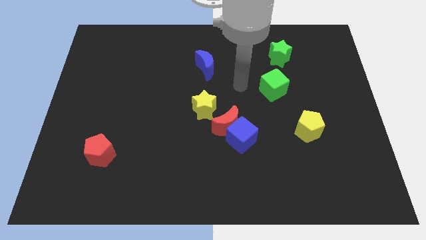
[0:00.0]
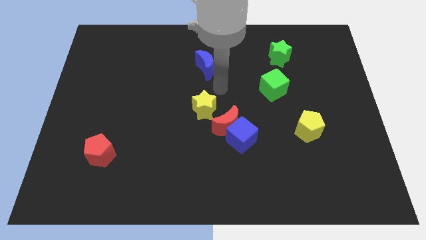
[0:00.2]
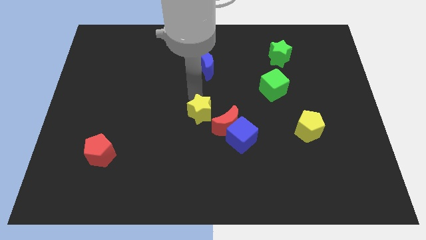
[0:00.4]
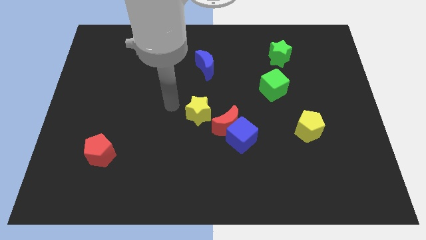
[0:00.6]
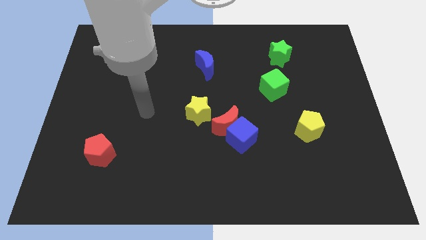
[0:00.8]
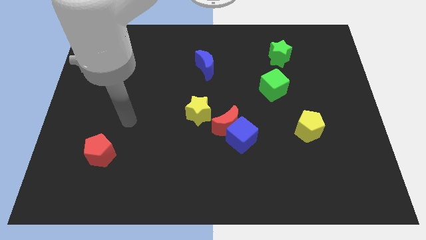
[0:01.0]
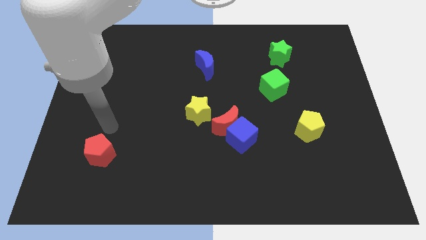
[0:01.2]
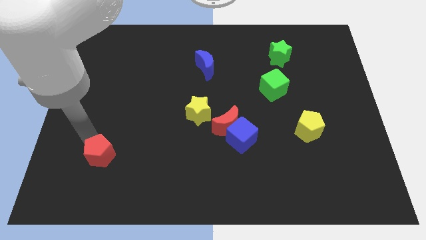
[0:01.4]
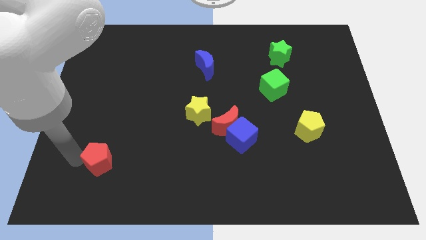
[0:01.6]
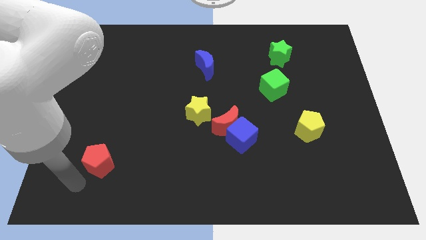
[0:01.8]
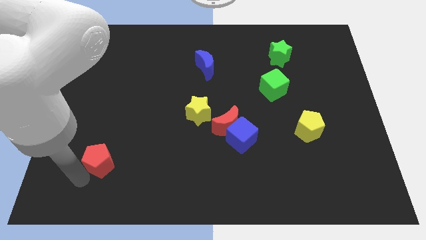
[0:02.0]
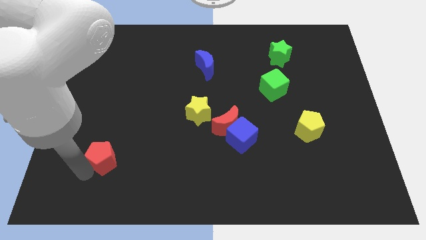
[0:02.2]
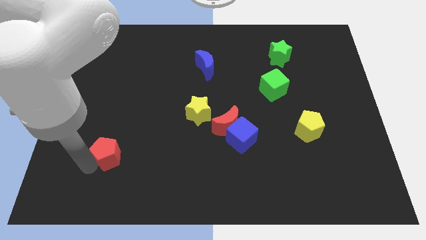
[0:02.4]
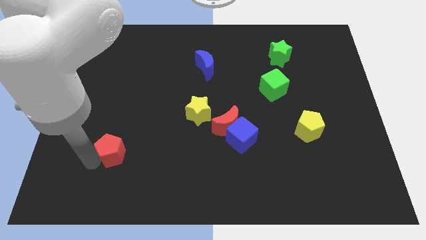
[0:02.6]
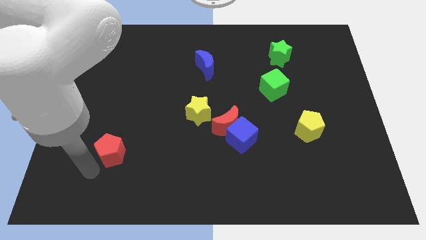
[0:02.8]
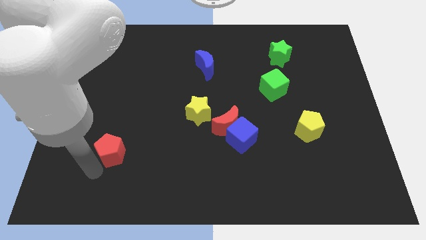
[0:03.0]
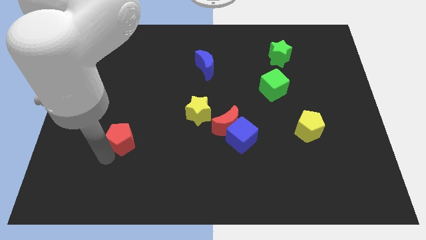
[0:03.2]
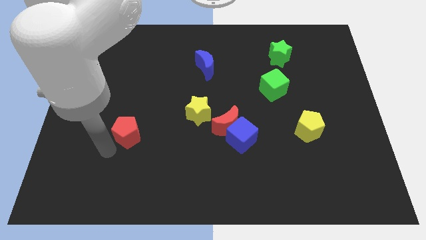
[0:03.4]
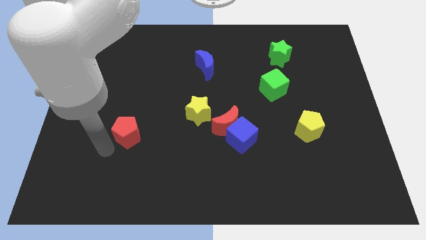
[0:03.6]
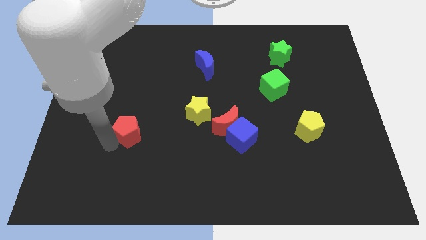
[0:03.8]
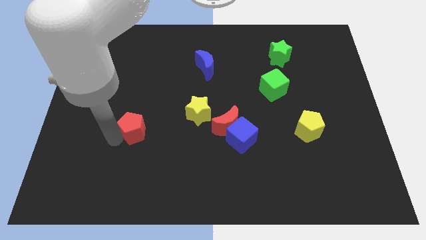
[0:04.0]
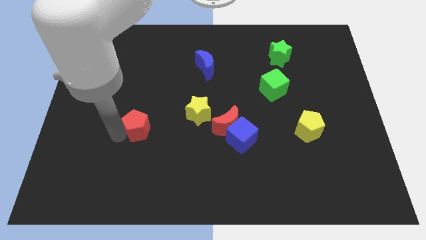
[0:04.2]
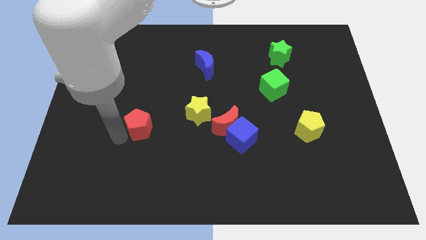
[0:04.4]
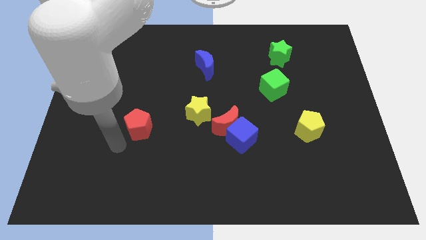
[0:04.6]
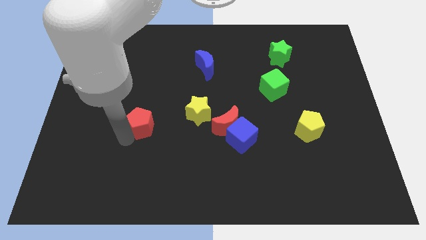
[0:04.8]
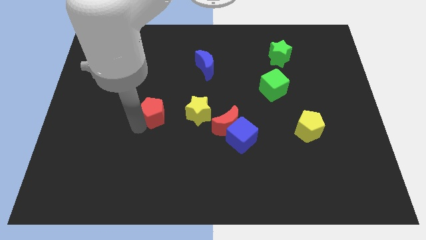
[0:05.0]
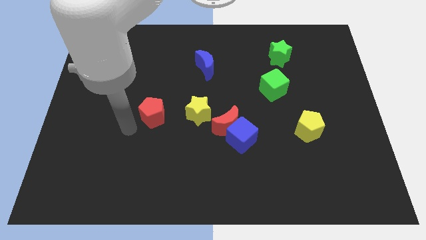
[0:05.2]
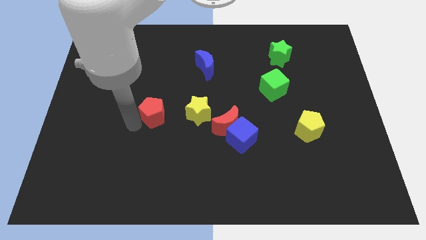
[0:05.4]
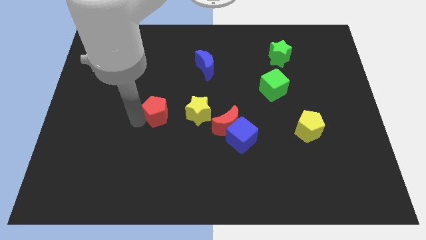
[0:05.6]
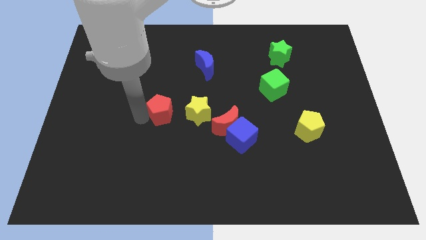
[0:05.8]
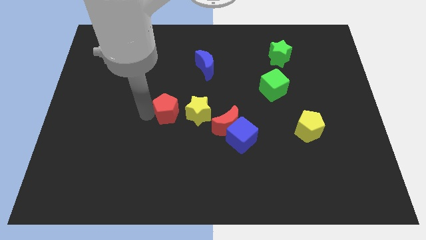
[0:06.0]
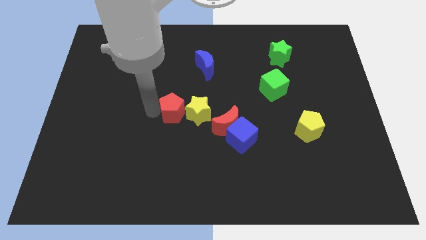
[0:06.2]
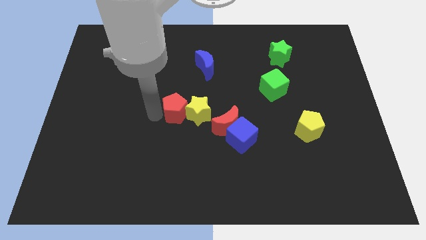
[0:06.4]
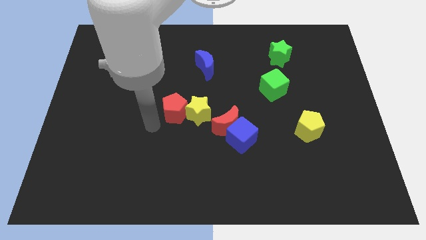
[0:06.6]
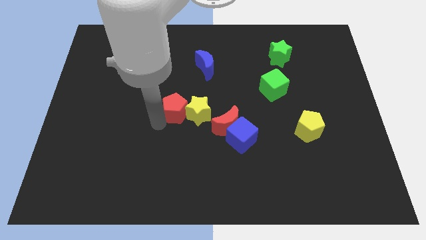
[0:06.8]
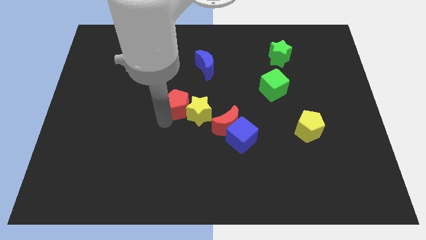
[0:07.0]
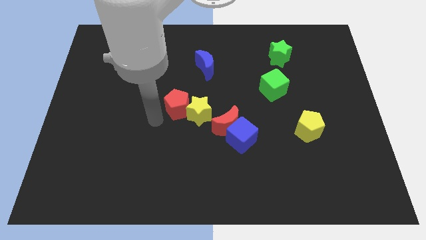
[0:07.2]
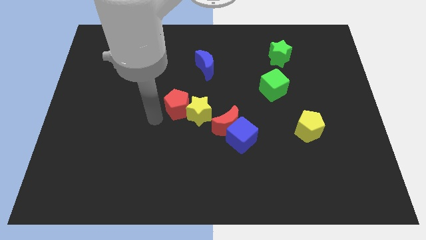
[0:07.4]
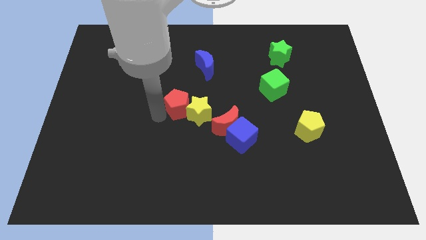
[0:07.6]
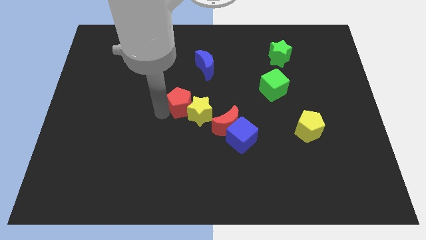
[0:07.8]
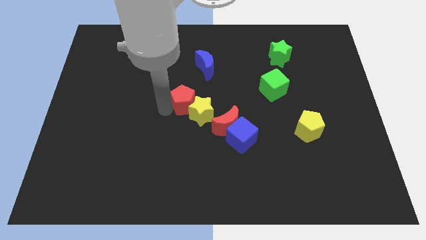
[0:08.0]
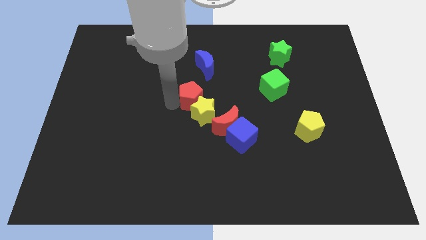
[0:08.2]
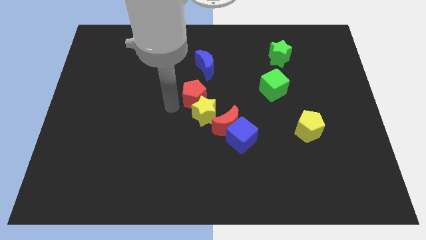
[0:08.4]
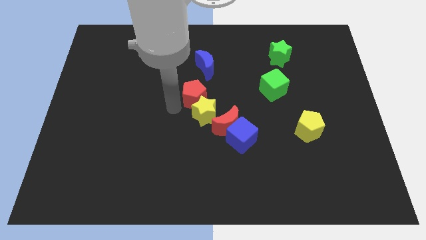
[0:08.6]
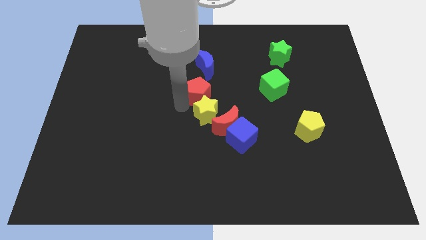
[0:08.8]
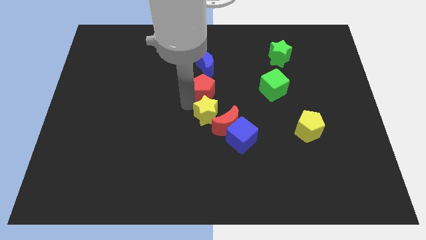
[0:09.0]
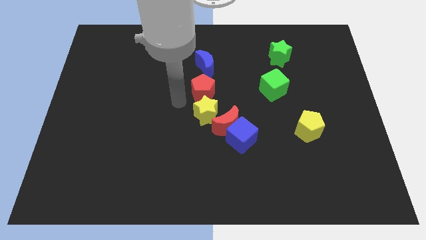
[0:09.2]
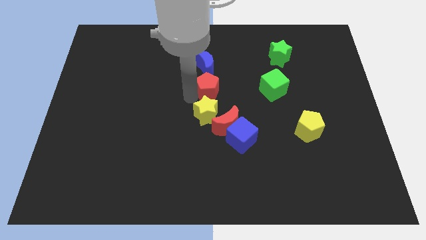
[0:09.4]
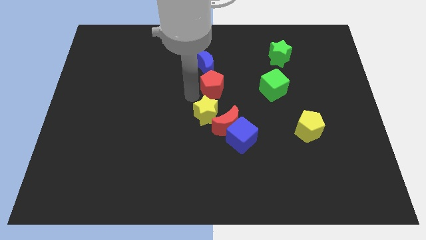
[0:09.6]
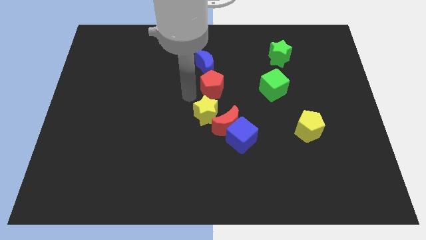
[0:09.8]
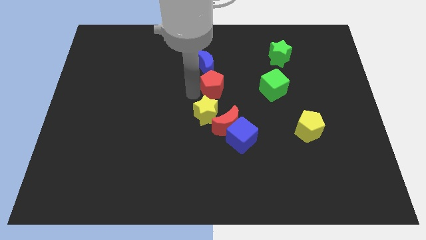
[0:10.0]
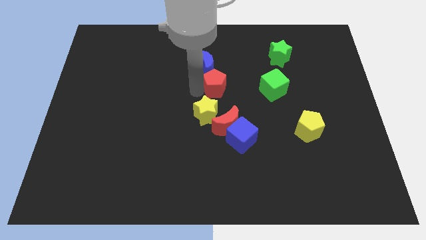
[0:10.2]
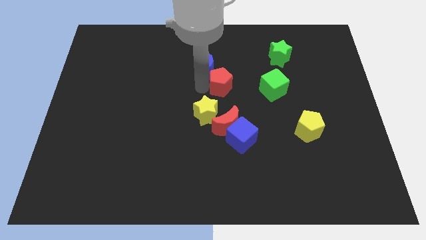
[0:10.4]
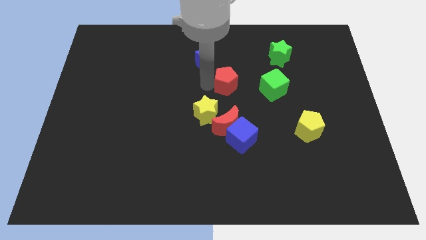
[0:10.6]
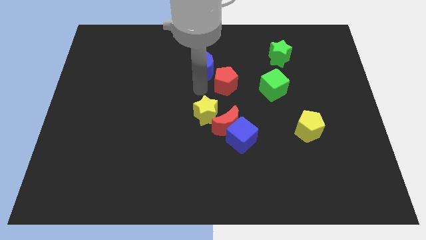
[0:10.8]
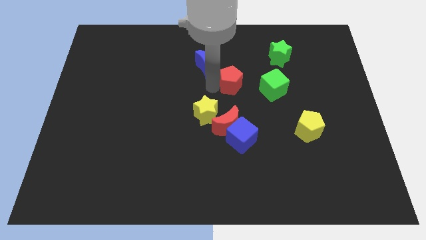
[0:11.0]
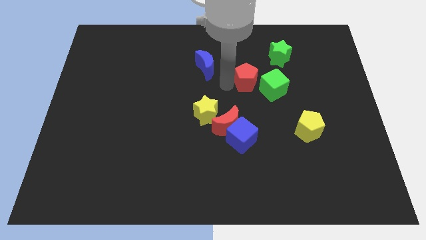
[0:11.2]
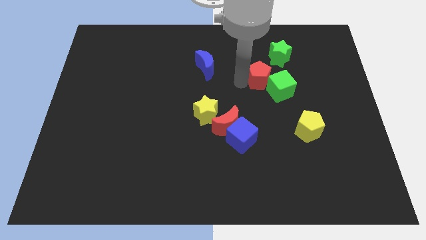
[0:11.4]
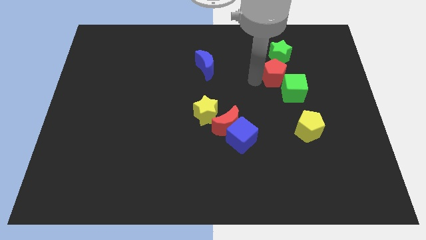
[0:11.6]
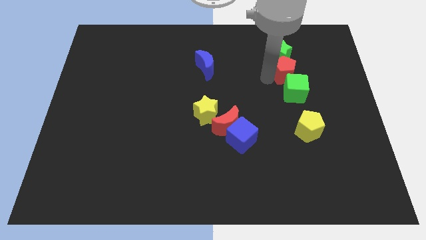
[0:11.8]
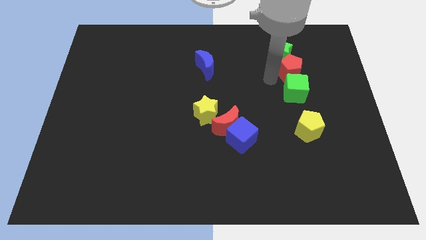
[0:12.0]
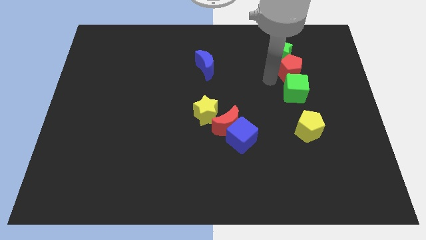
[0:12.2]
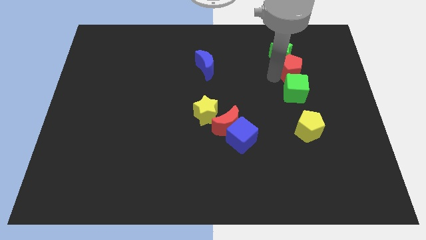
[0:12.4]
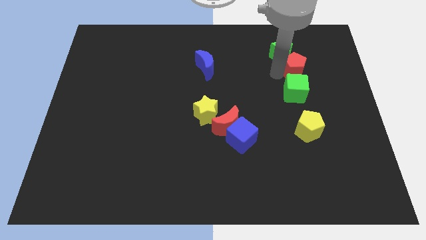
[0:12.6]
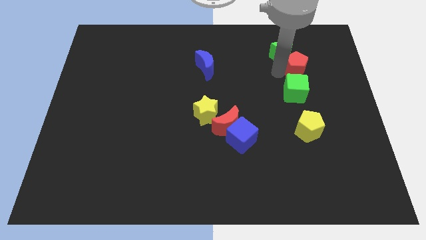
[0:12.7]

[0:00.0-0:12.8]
move the red pentagon to the right side of the green star

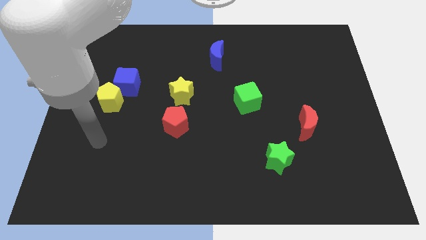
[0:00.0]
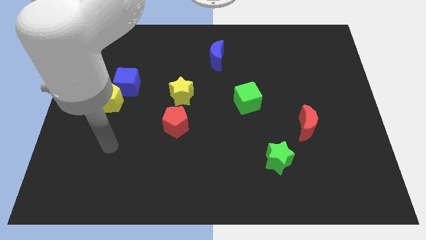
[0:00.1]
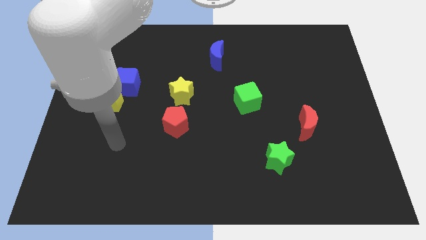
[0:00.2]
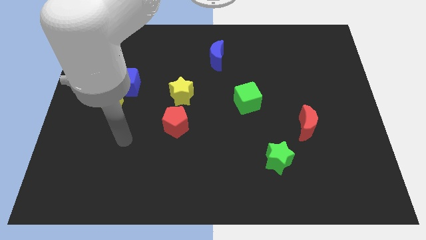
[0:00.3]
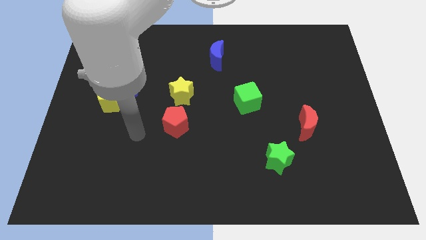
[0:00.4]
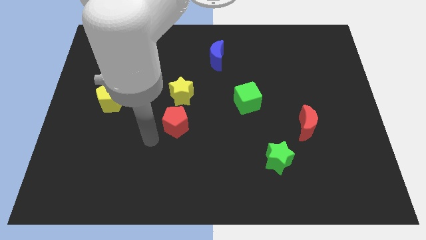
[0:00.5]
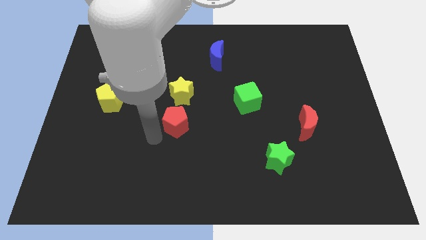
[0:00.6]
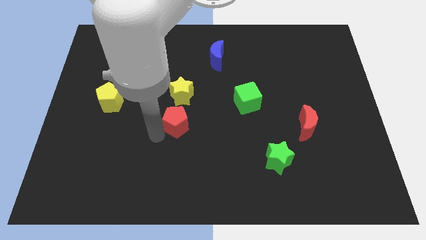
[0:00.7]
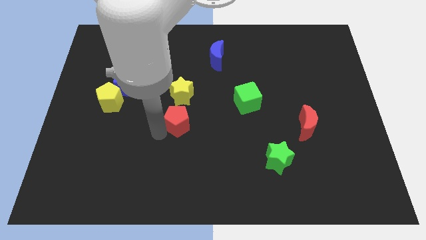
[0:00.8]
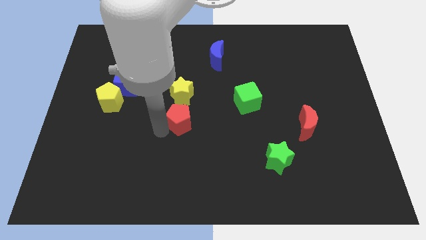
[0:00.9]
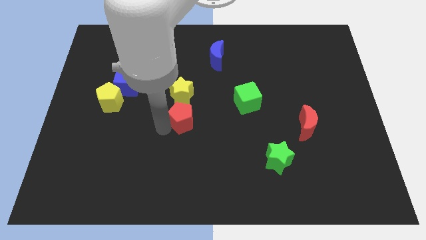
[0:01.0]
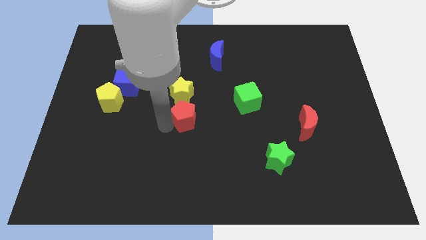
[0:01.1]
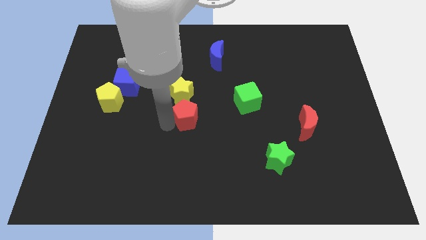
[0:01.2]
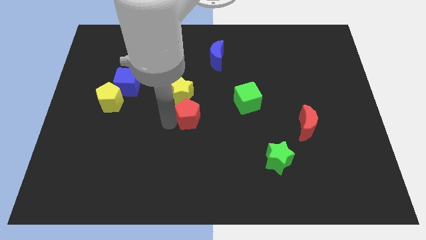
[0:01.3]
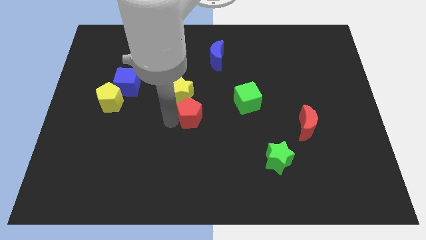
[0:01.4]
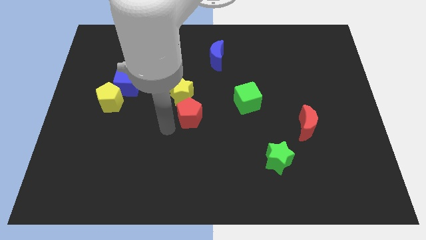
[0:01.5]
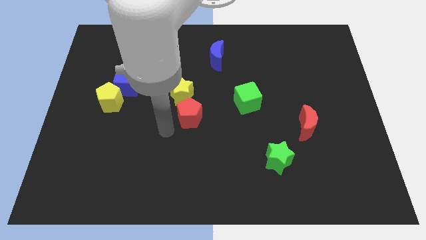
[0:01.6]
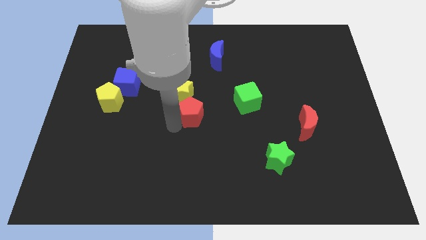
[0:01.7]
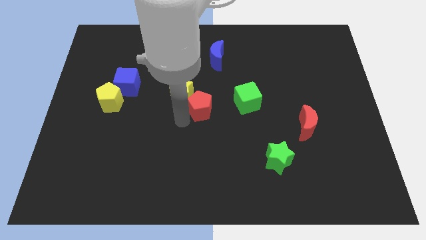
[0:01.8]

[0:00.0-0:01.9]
move the red pentagon to the right side of the yellow star
